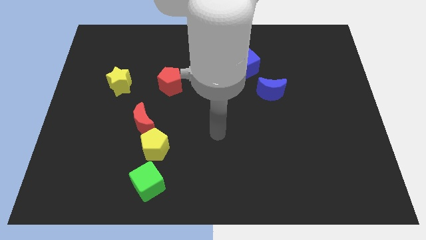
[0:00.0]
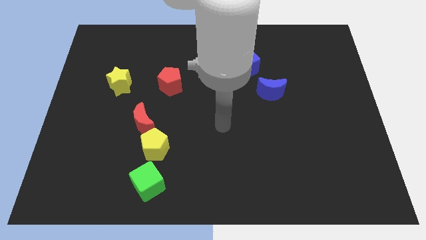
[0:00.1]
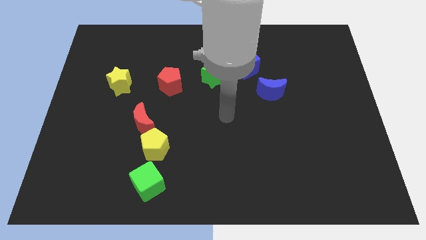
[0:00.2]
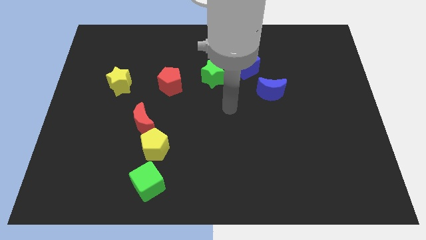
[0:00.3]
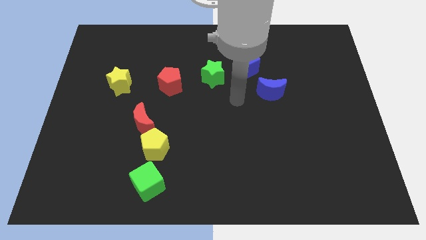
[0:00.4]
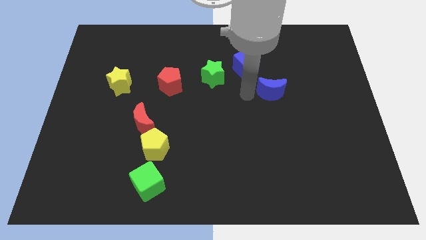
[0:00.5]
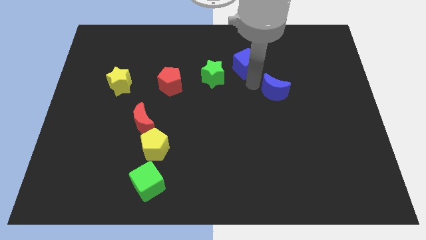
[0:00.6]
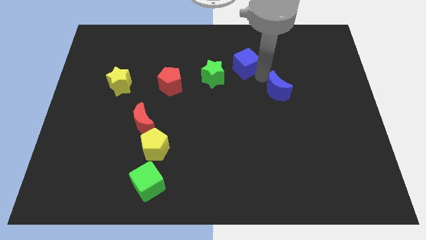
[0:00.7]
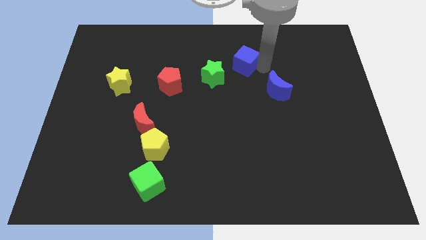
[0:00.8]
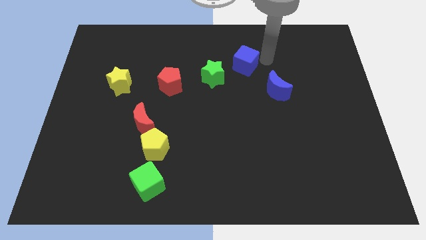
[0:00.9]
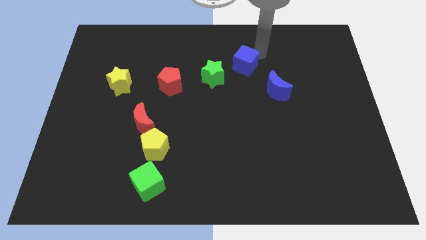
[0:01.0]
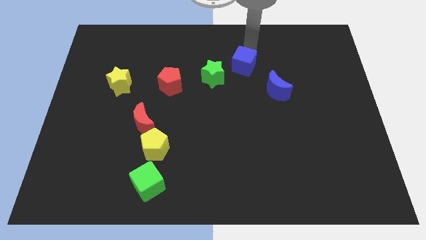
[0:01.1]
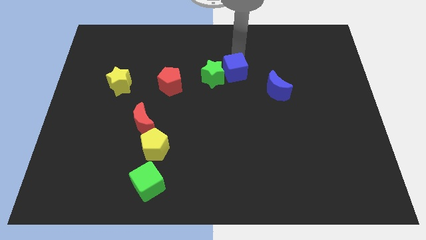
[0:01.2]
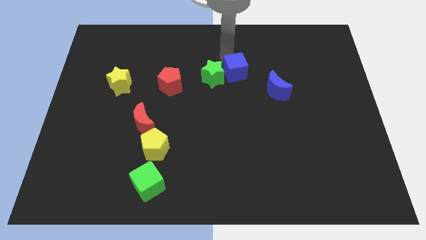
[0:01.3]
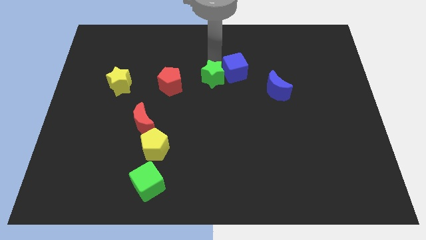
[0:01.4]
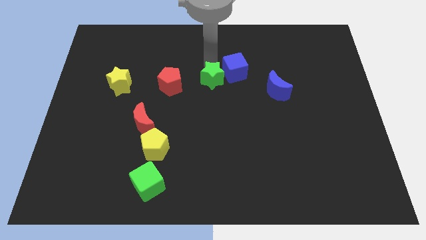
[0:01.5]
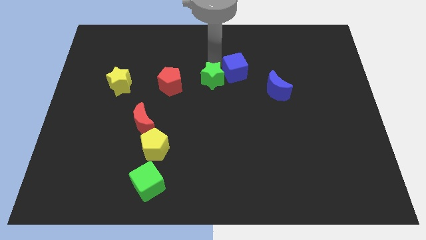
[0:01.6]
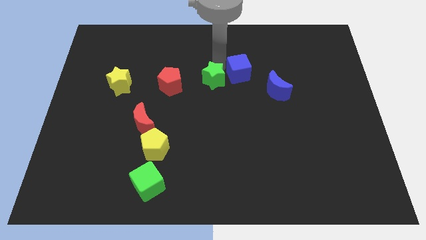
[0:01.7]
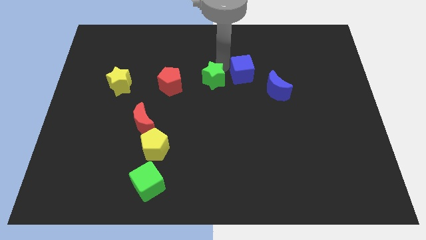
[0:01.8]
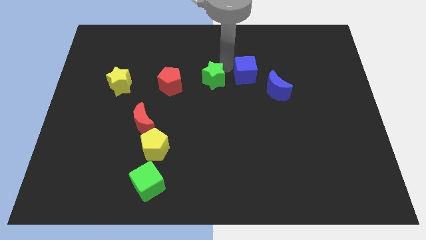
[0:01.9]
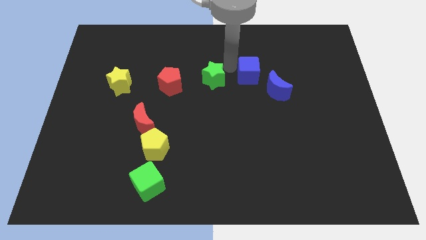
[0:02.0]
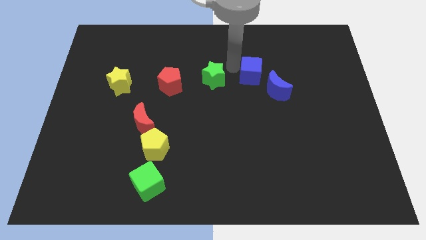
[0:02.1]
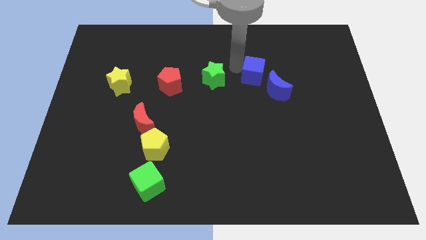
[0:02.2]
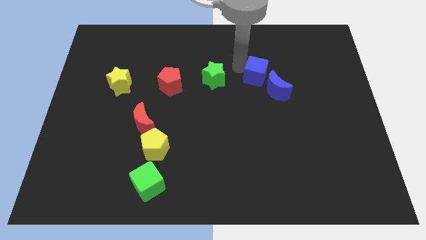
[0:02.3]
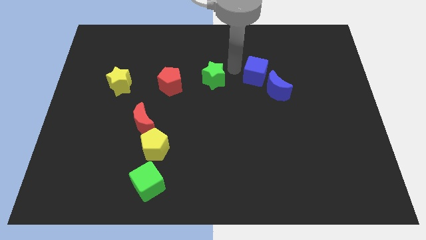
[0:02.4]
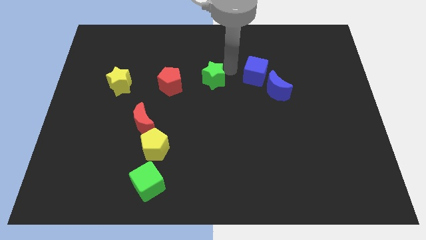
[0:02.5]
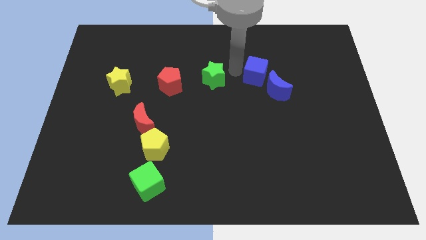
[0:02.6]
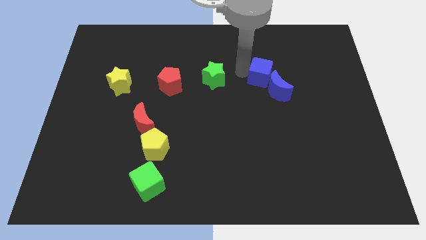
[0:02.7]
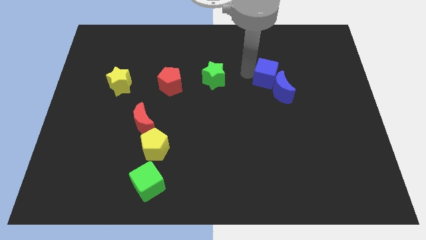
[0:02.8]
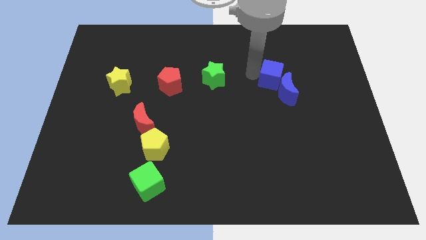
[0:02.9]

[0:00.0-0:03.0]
push the blue cube diagonally downwards and to the right somewhat

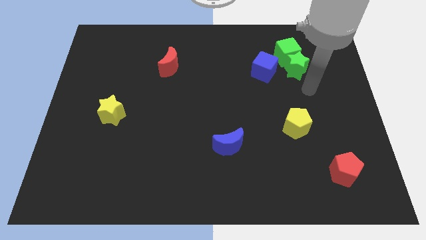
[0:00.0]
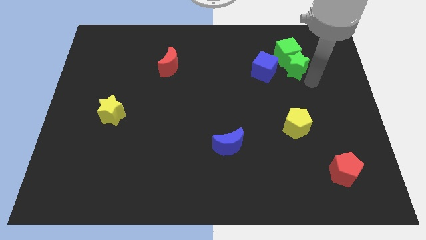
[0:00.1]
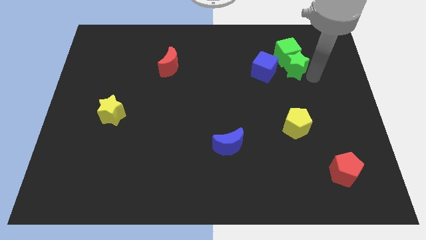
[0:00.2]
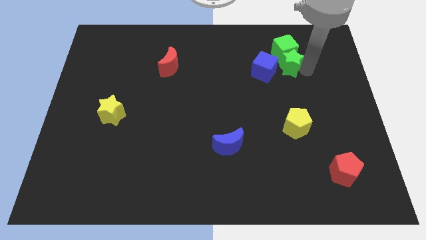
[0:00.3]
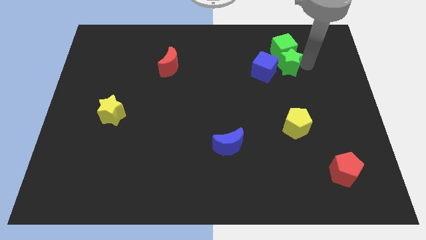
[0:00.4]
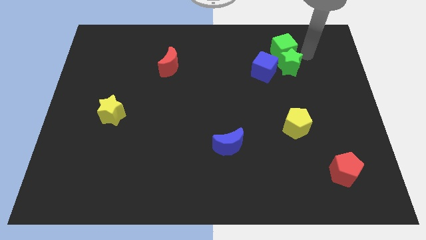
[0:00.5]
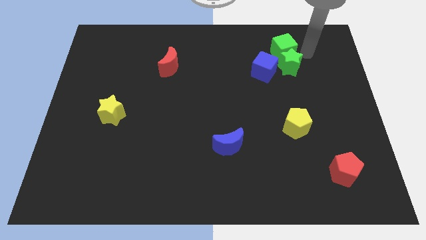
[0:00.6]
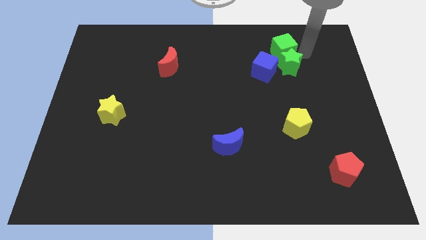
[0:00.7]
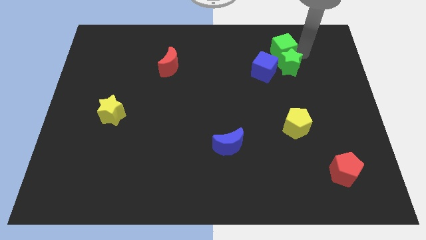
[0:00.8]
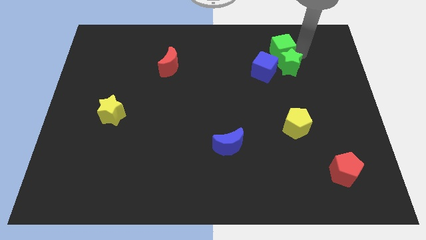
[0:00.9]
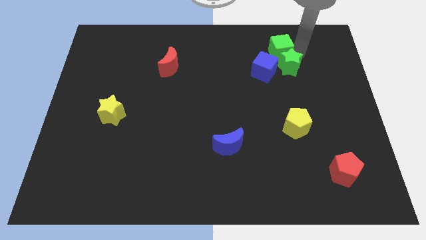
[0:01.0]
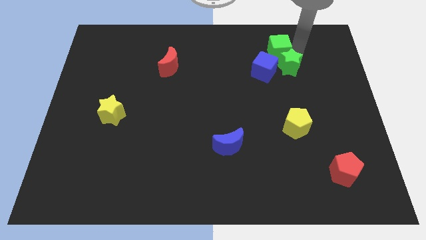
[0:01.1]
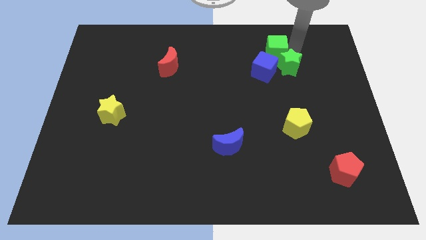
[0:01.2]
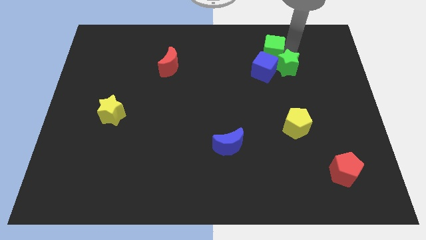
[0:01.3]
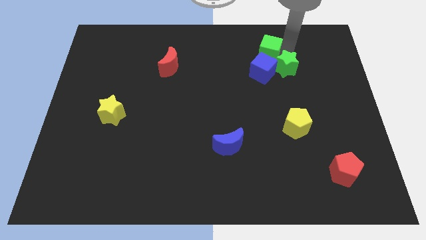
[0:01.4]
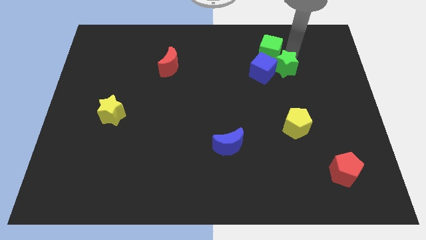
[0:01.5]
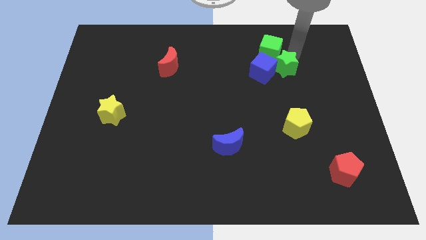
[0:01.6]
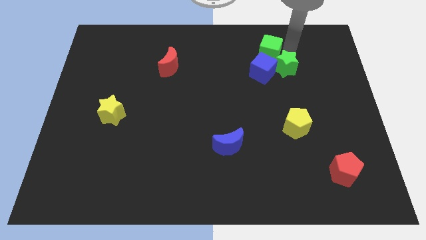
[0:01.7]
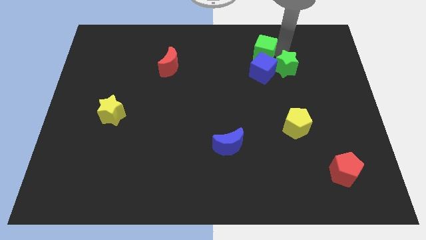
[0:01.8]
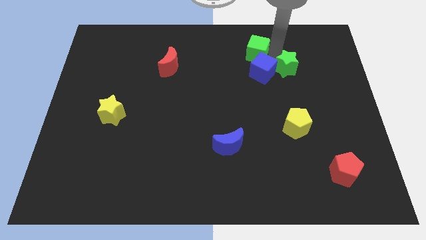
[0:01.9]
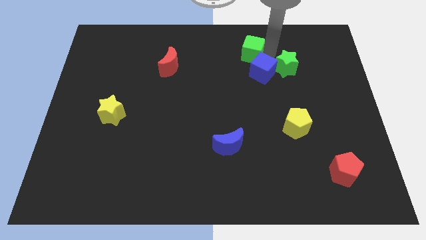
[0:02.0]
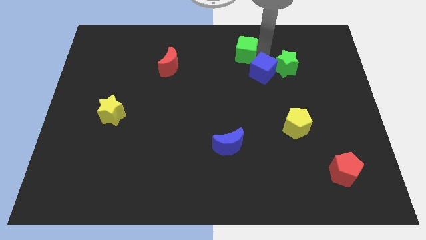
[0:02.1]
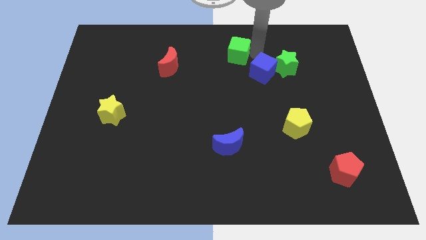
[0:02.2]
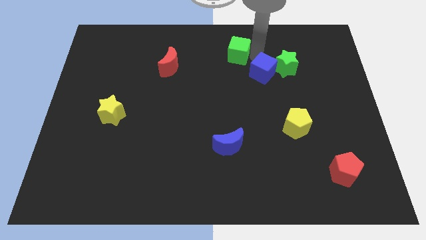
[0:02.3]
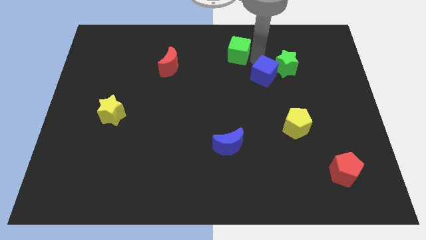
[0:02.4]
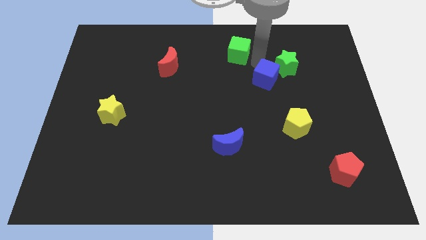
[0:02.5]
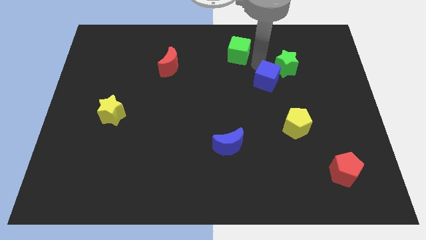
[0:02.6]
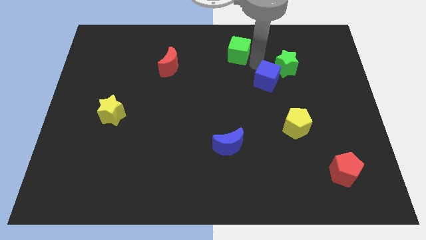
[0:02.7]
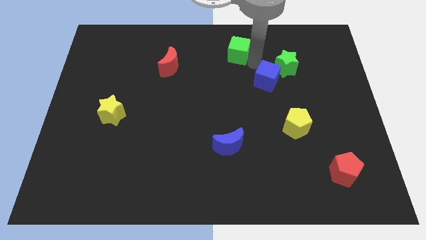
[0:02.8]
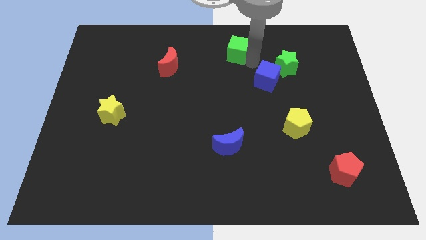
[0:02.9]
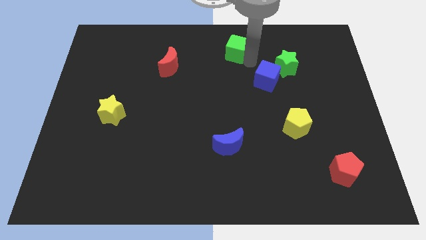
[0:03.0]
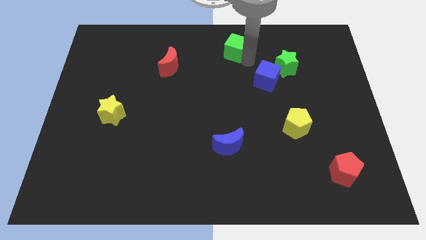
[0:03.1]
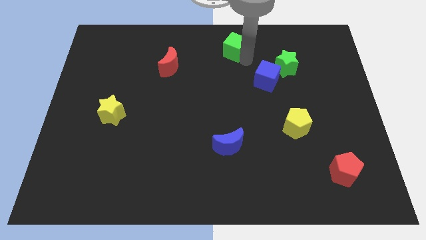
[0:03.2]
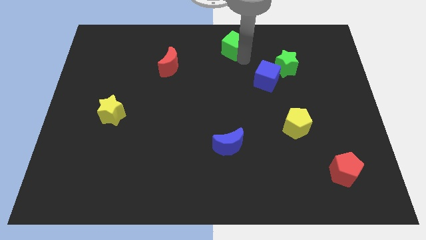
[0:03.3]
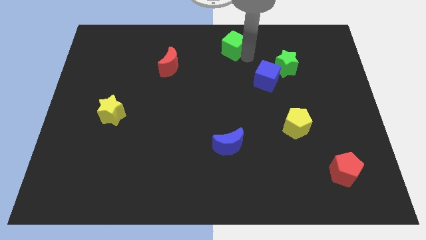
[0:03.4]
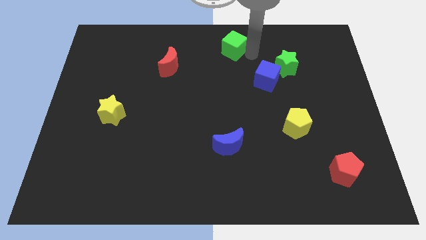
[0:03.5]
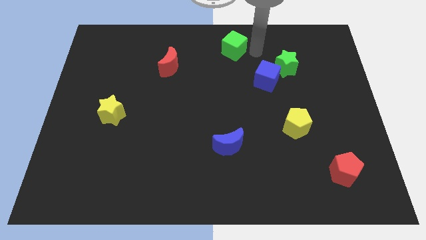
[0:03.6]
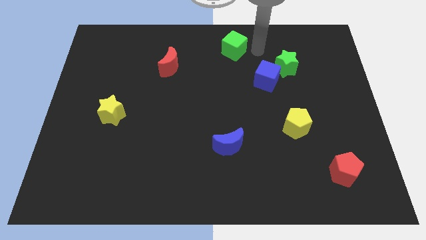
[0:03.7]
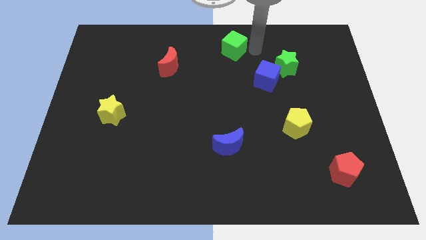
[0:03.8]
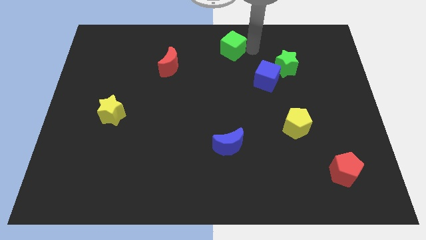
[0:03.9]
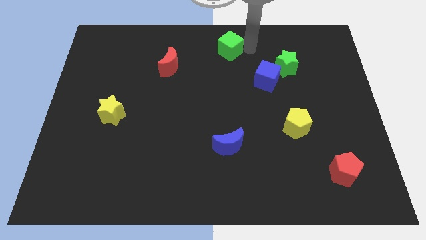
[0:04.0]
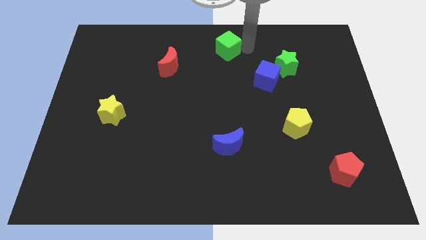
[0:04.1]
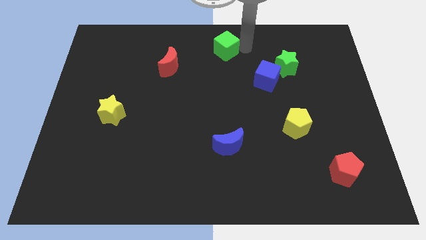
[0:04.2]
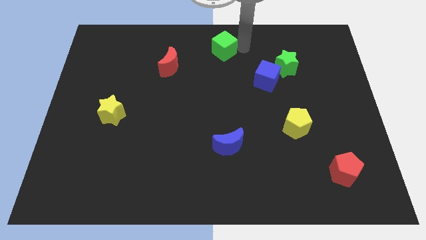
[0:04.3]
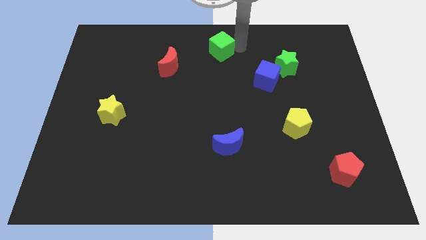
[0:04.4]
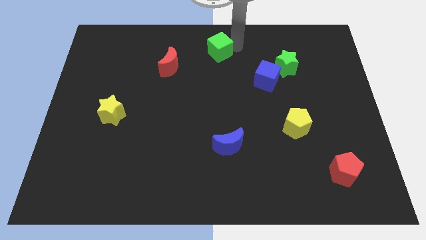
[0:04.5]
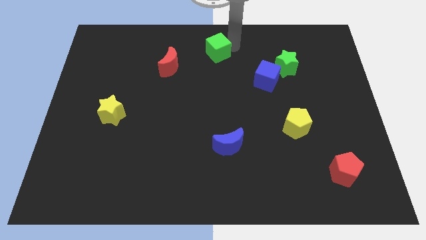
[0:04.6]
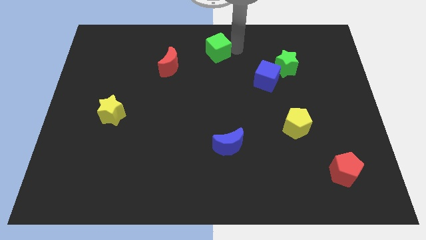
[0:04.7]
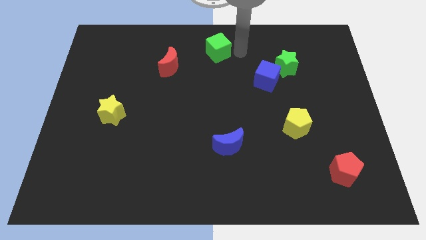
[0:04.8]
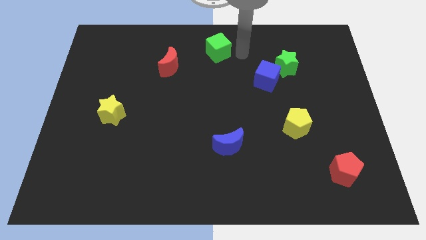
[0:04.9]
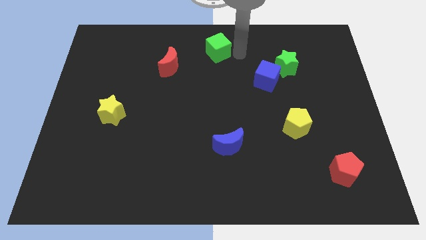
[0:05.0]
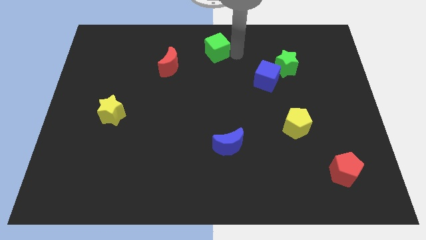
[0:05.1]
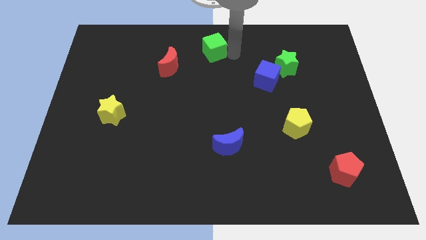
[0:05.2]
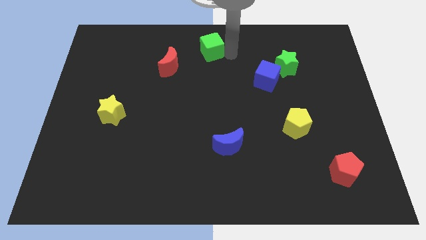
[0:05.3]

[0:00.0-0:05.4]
push the green cube left
